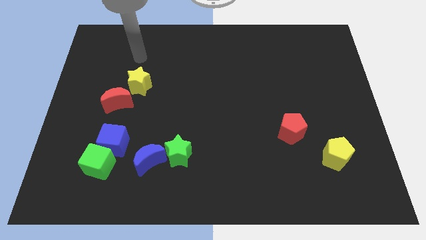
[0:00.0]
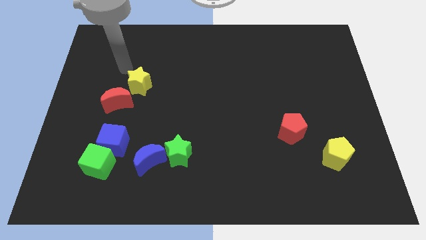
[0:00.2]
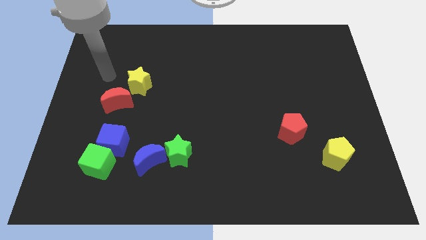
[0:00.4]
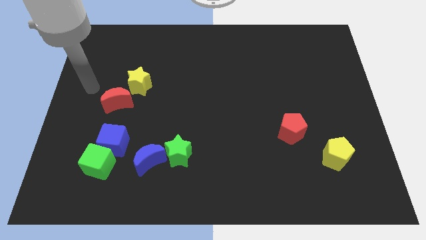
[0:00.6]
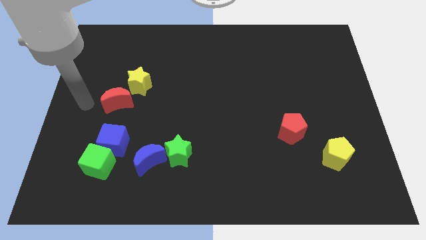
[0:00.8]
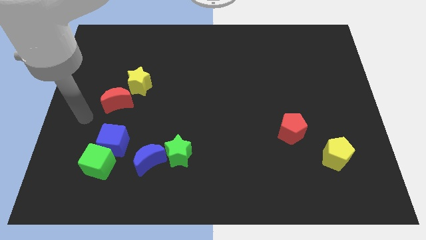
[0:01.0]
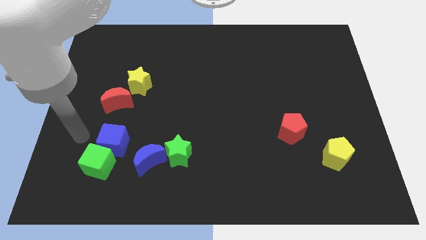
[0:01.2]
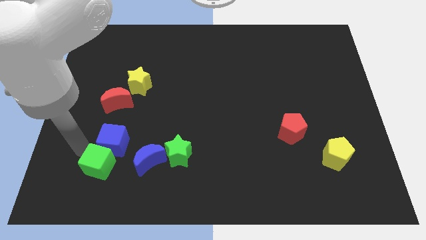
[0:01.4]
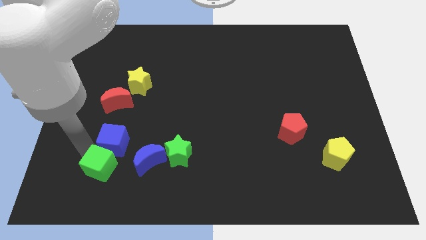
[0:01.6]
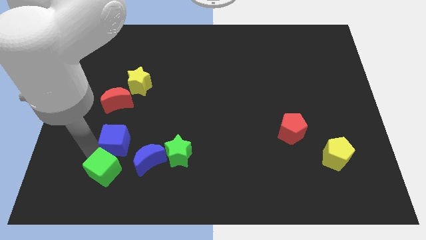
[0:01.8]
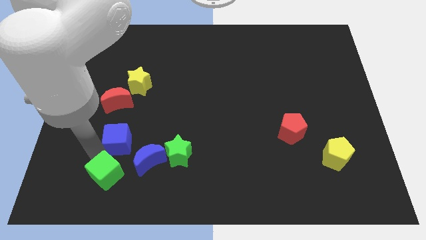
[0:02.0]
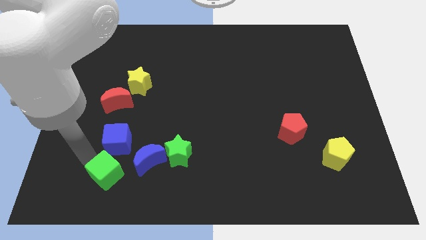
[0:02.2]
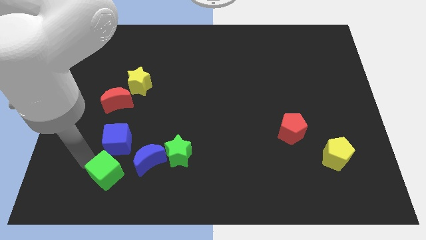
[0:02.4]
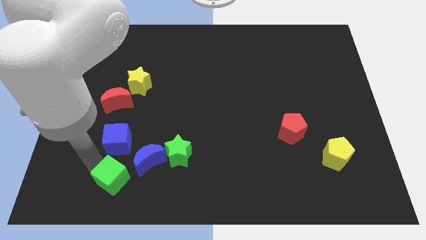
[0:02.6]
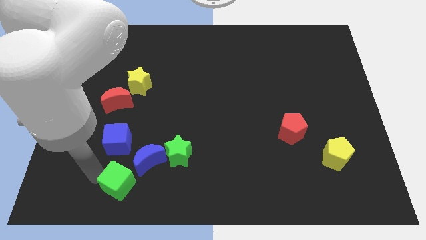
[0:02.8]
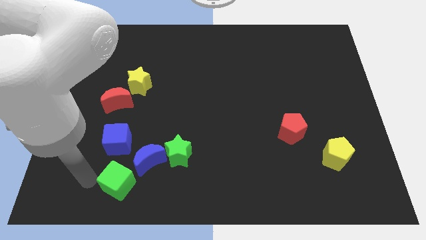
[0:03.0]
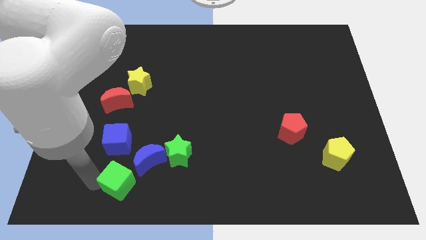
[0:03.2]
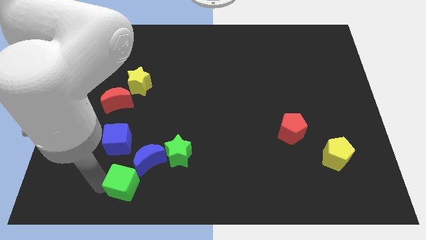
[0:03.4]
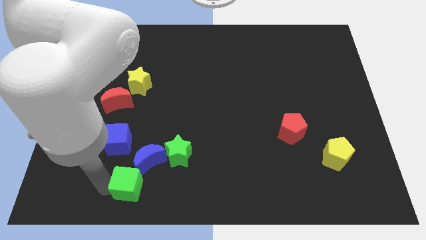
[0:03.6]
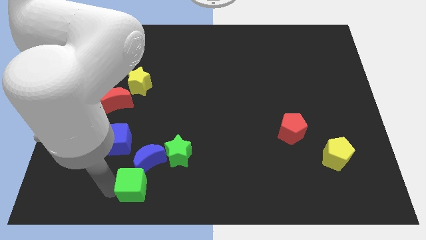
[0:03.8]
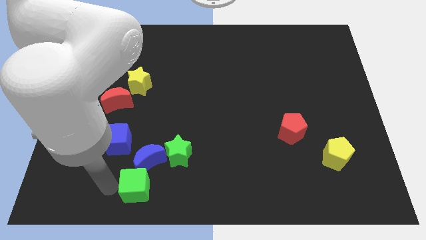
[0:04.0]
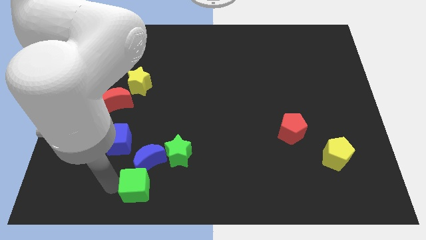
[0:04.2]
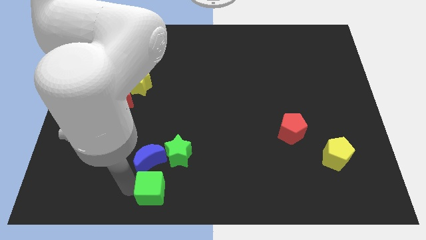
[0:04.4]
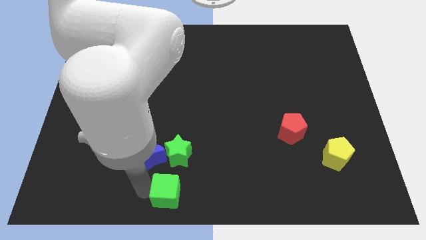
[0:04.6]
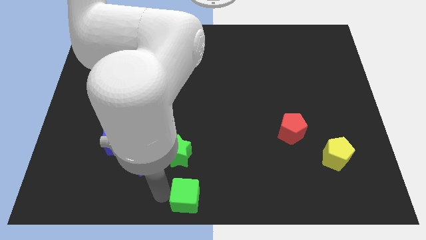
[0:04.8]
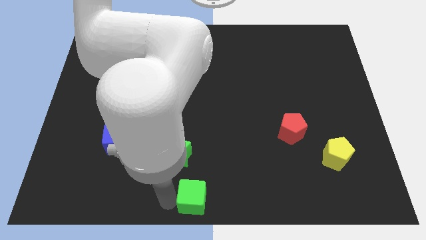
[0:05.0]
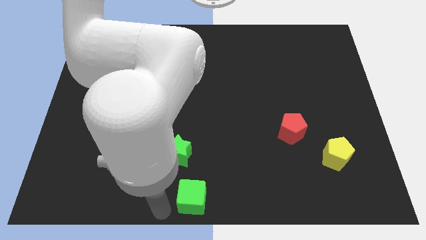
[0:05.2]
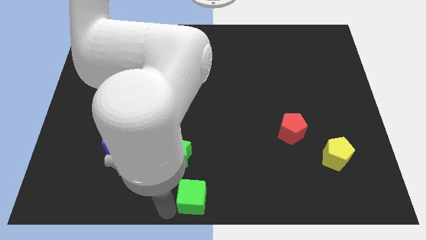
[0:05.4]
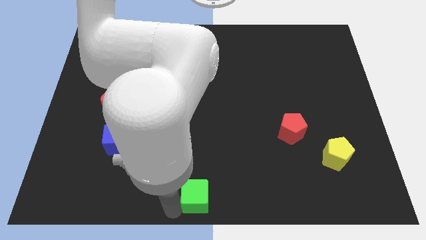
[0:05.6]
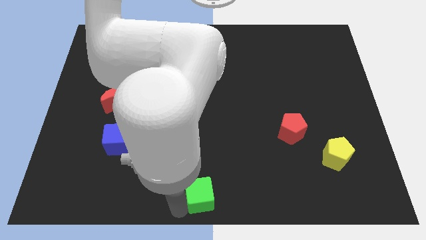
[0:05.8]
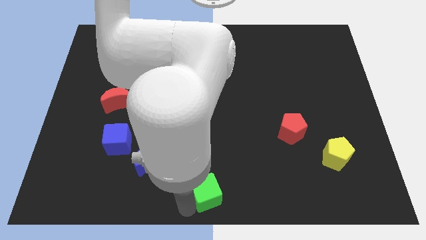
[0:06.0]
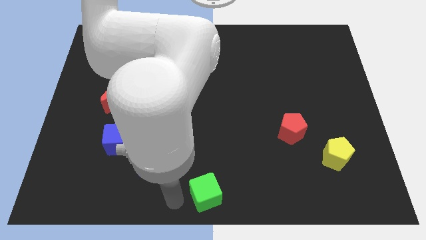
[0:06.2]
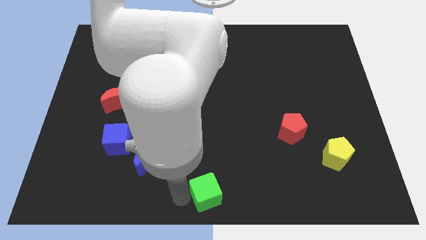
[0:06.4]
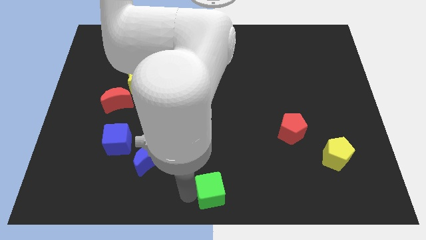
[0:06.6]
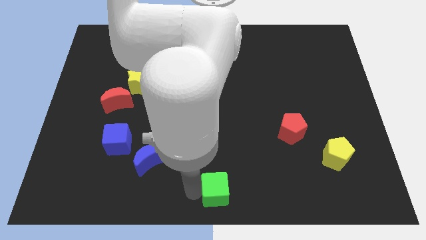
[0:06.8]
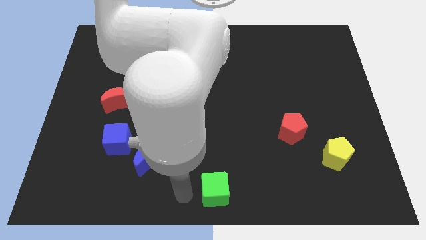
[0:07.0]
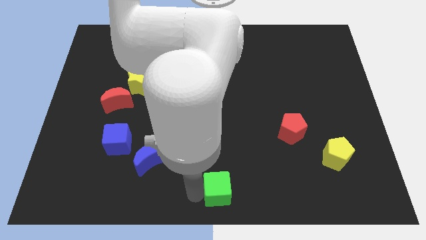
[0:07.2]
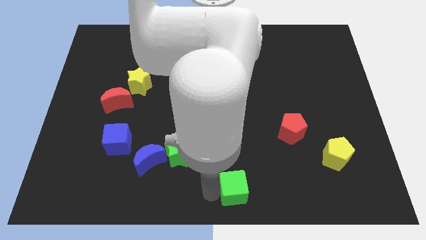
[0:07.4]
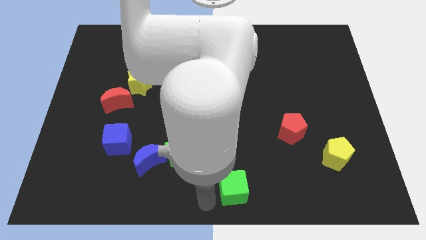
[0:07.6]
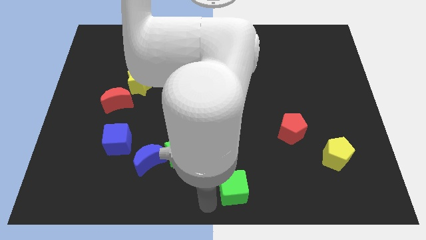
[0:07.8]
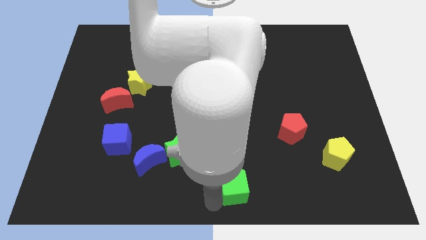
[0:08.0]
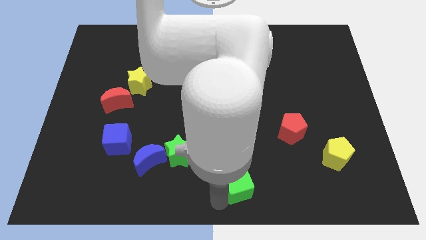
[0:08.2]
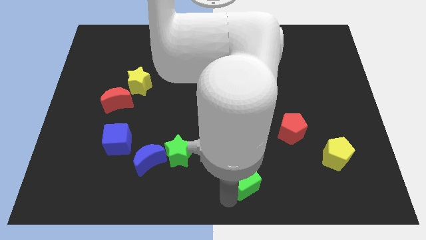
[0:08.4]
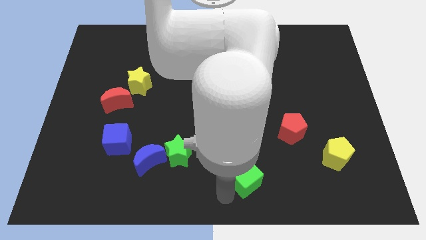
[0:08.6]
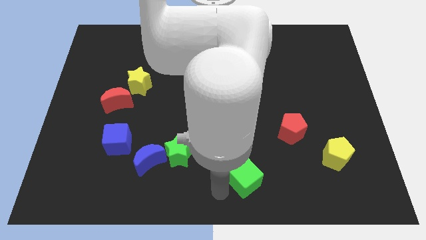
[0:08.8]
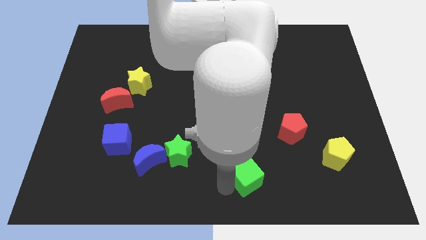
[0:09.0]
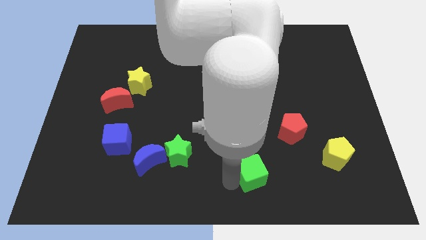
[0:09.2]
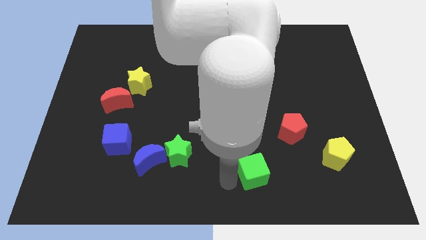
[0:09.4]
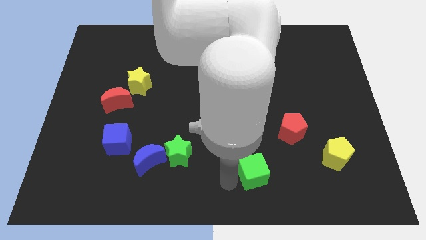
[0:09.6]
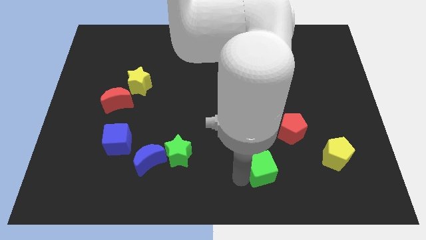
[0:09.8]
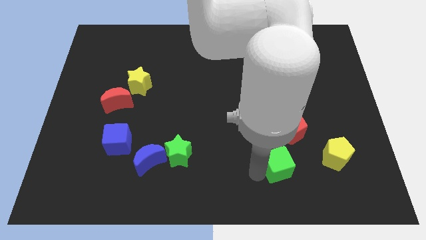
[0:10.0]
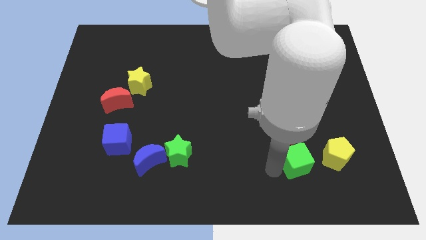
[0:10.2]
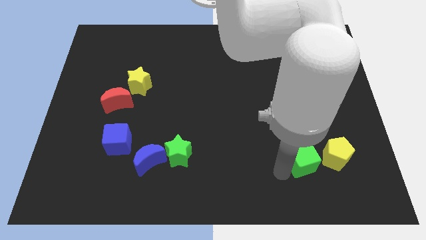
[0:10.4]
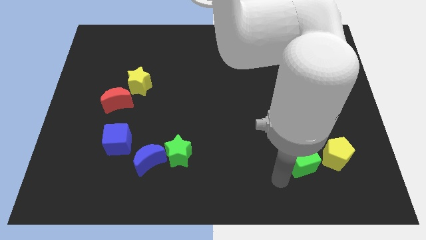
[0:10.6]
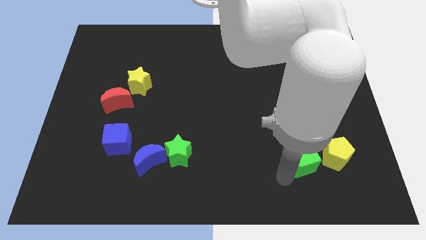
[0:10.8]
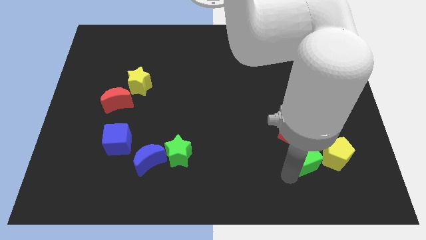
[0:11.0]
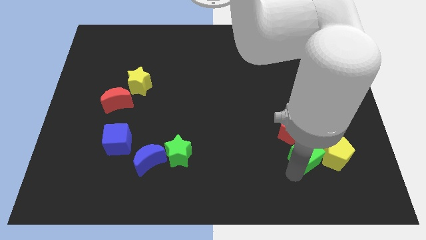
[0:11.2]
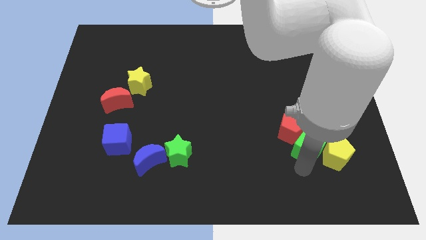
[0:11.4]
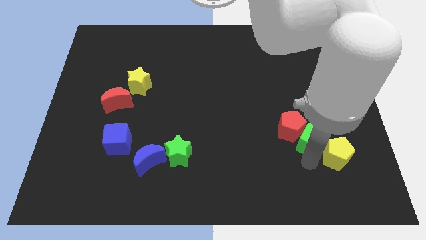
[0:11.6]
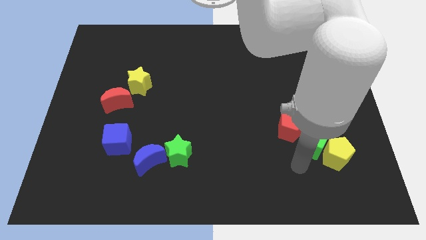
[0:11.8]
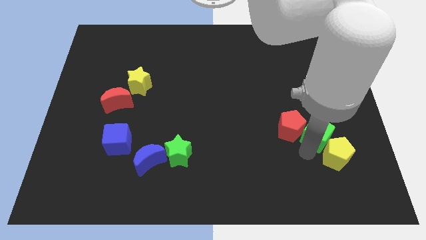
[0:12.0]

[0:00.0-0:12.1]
put the green cube to the top side of the yellow pentagon

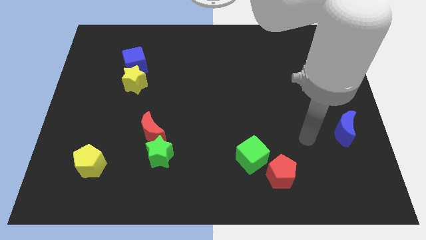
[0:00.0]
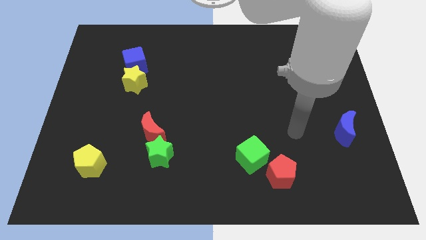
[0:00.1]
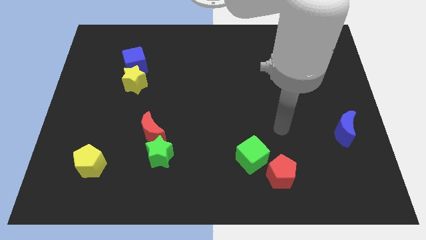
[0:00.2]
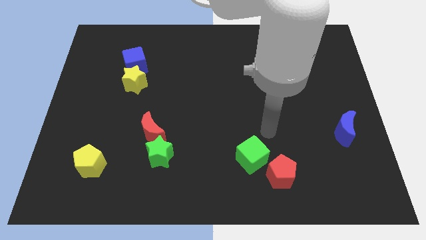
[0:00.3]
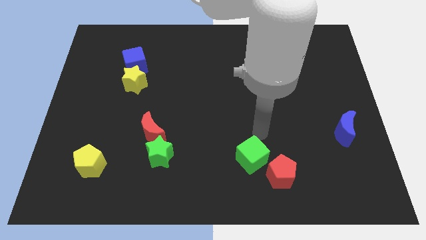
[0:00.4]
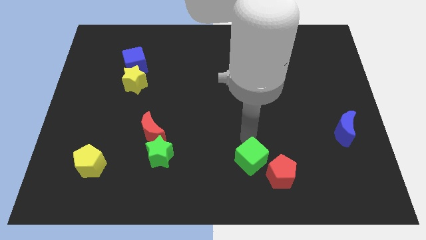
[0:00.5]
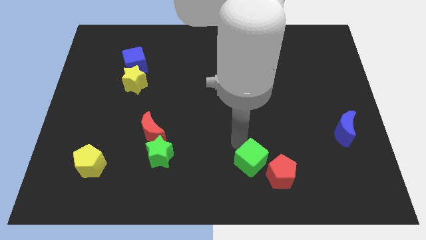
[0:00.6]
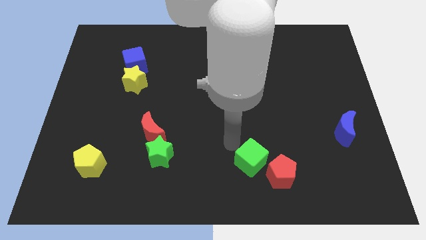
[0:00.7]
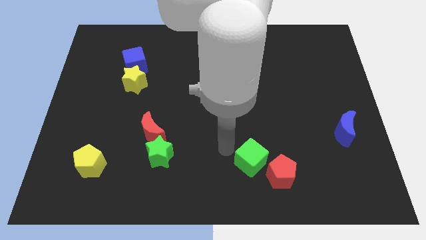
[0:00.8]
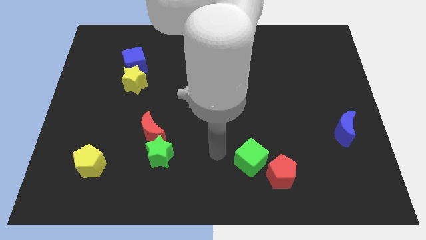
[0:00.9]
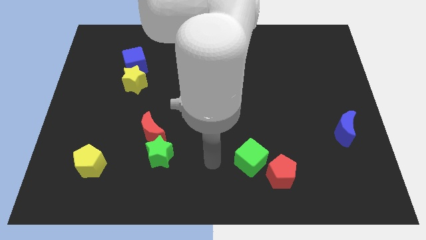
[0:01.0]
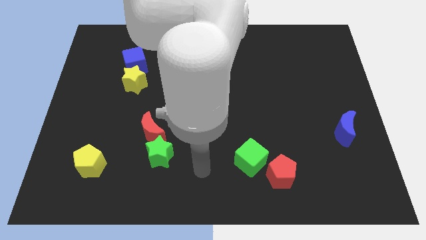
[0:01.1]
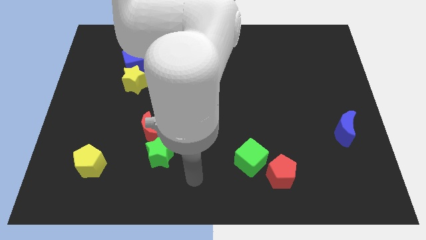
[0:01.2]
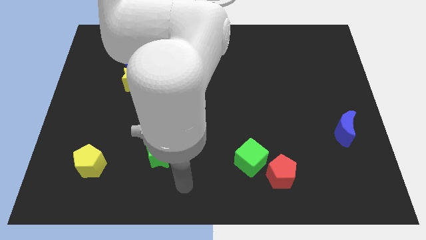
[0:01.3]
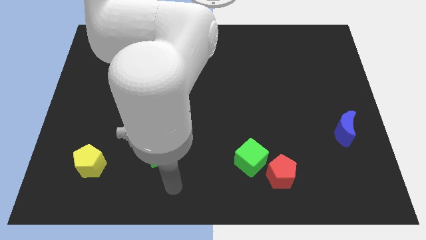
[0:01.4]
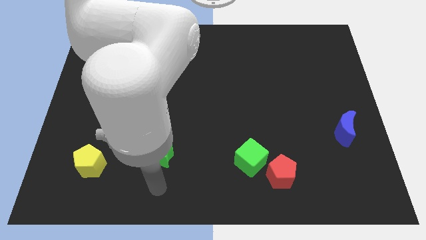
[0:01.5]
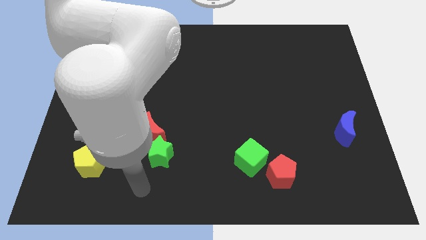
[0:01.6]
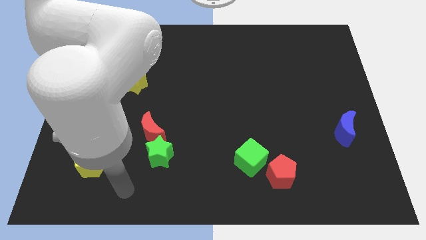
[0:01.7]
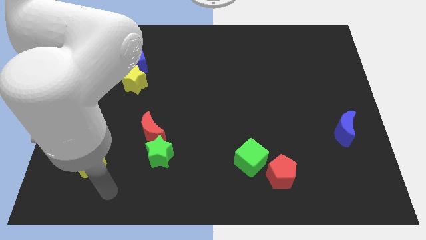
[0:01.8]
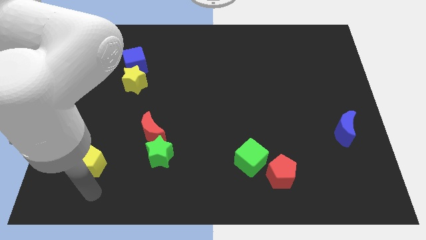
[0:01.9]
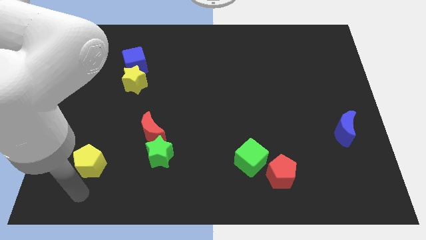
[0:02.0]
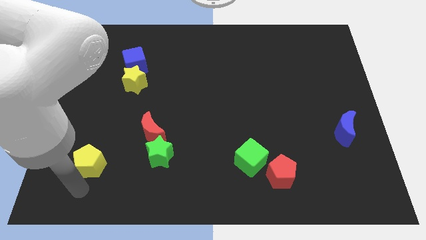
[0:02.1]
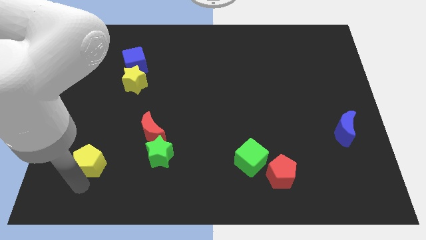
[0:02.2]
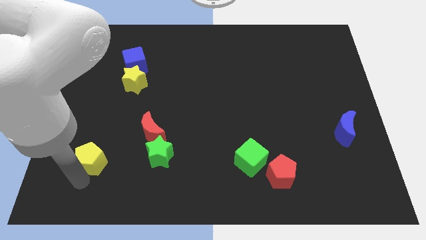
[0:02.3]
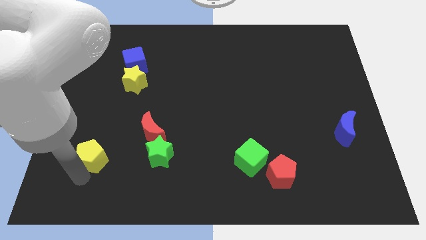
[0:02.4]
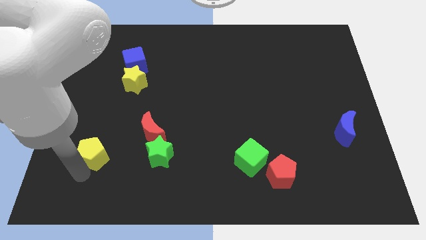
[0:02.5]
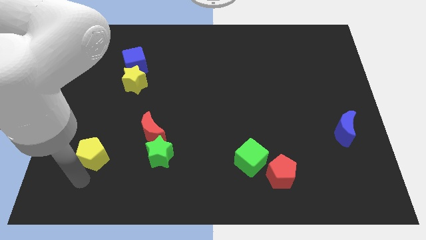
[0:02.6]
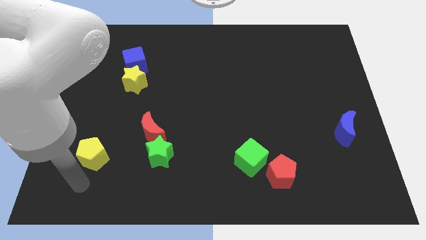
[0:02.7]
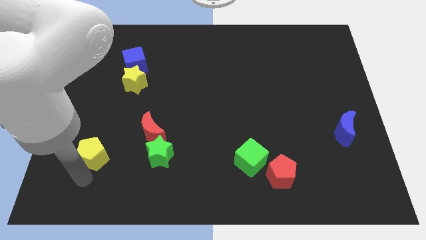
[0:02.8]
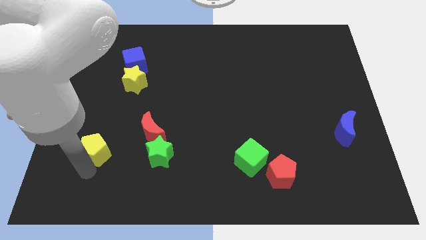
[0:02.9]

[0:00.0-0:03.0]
move the yellow pentagon to the left side of the red moon
